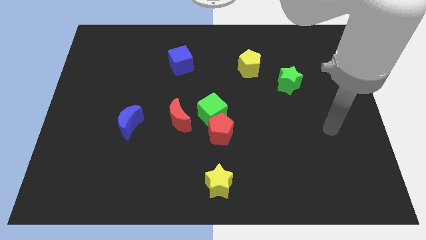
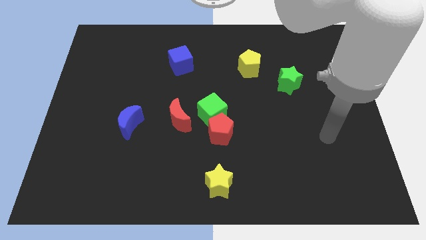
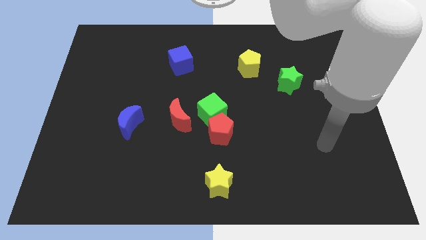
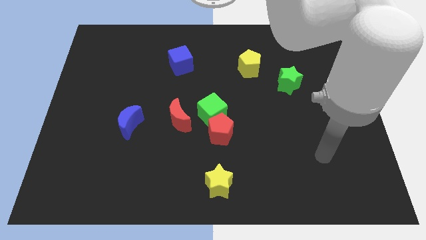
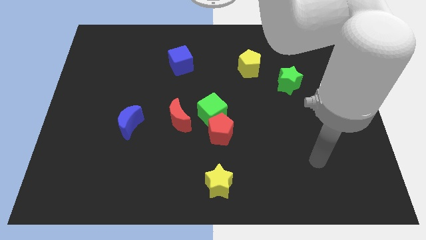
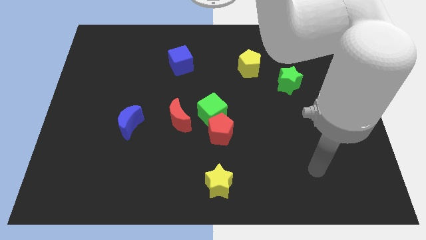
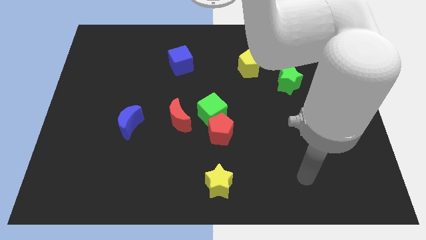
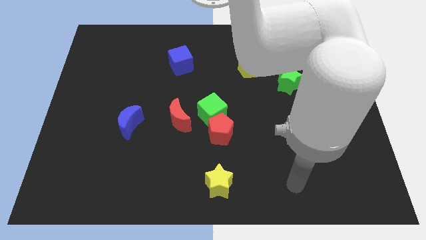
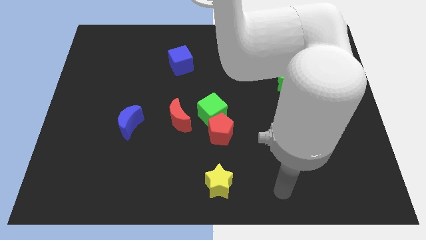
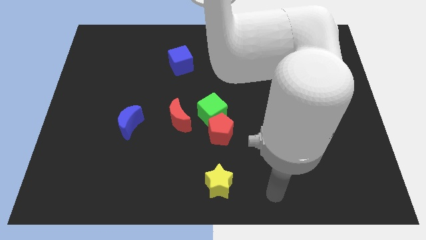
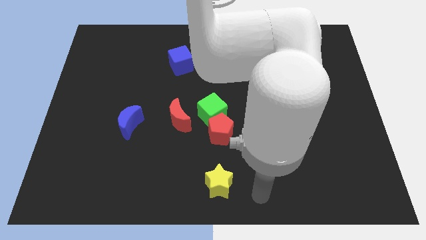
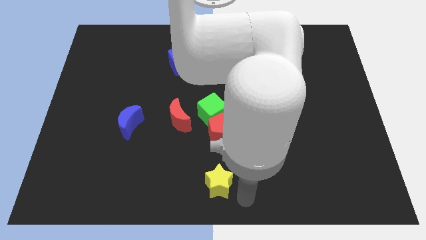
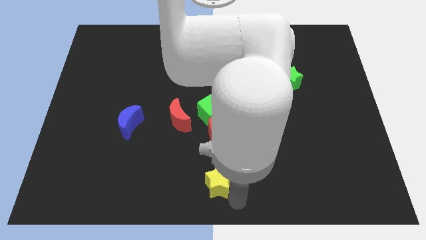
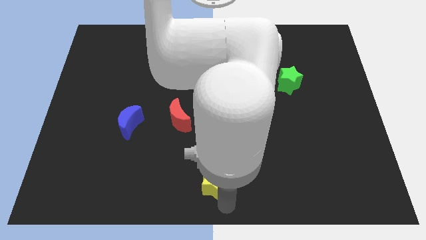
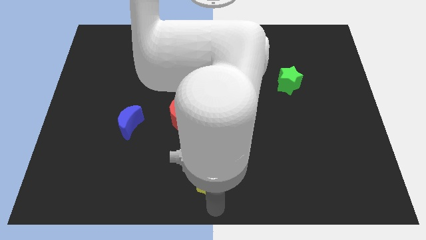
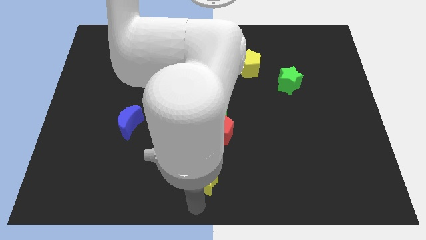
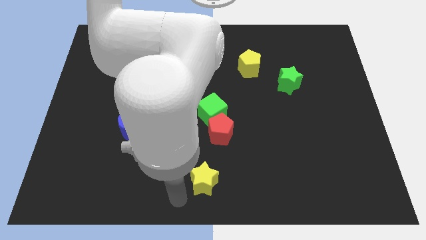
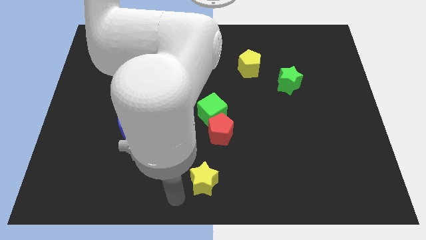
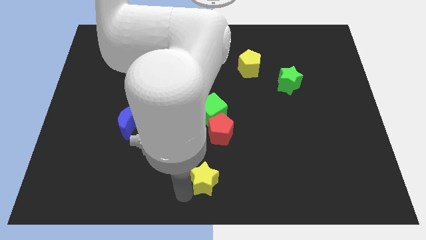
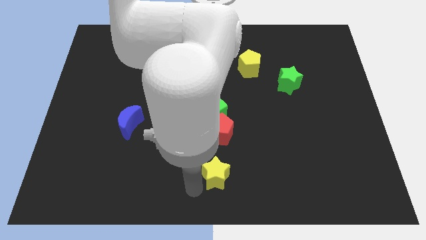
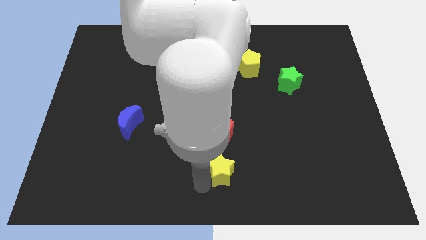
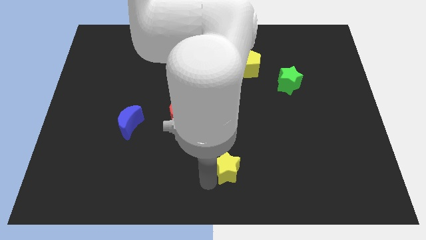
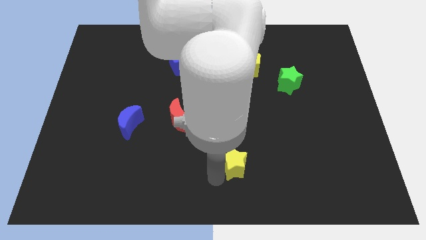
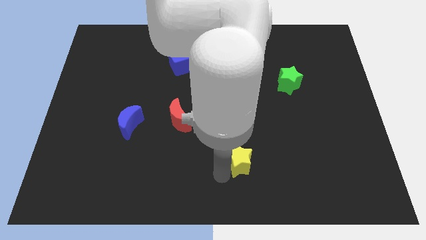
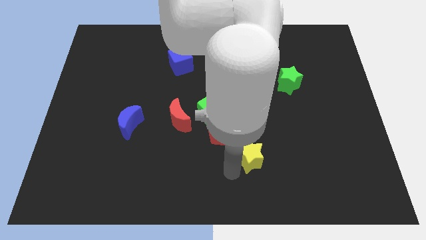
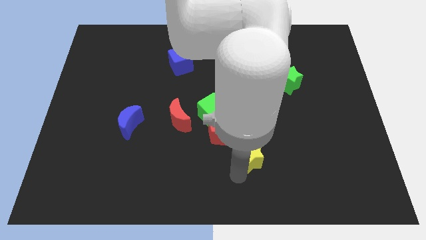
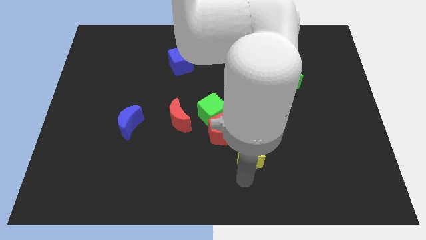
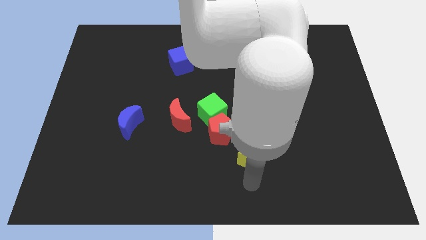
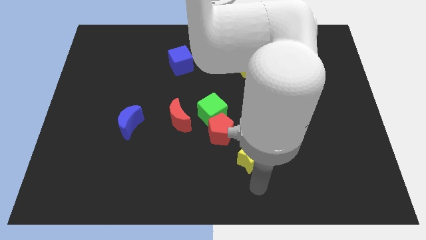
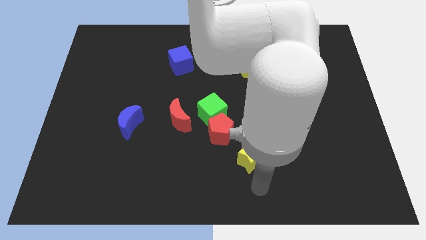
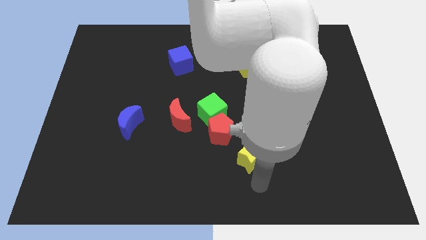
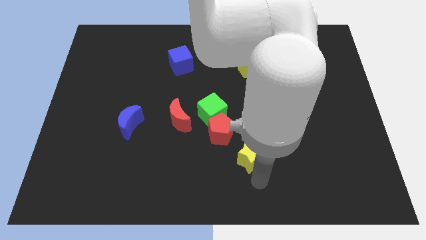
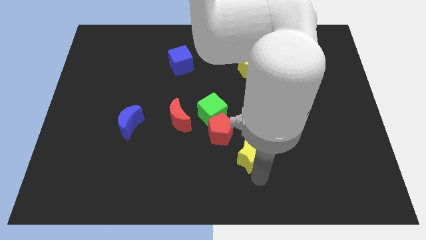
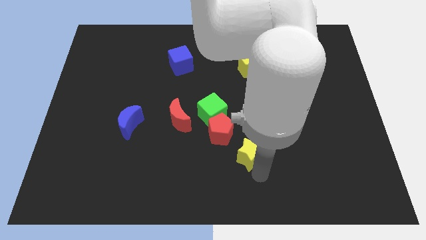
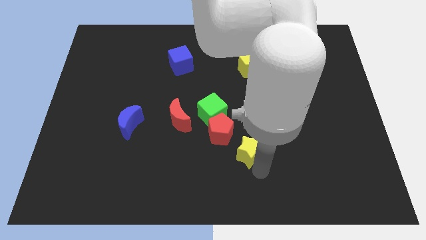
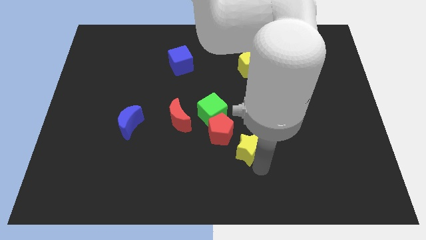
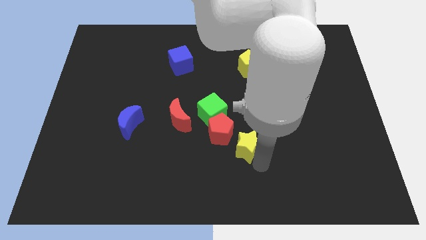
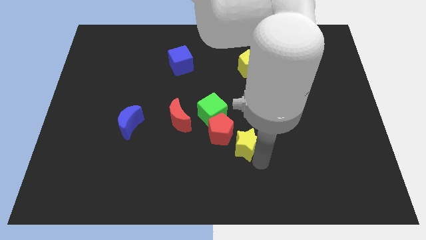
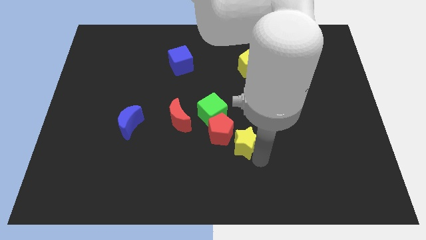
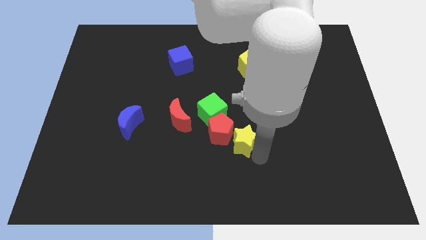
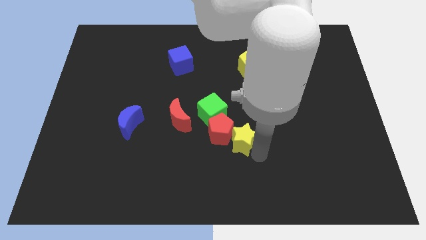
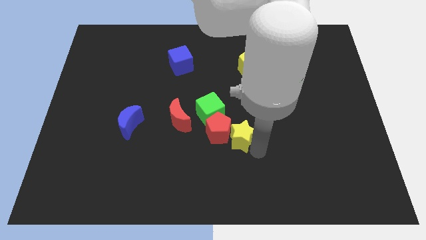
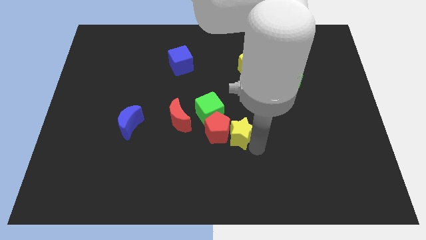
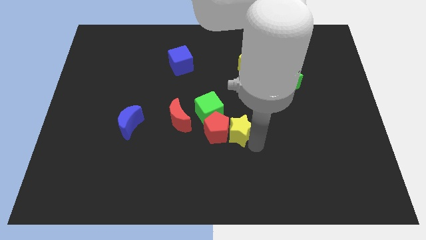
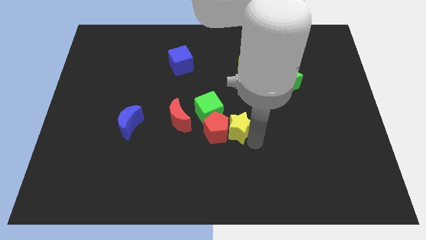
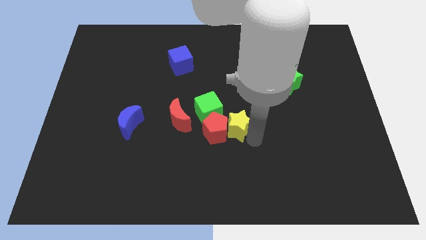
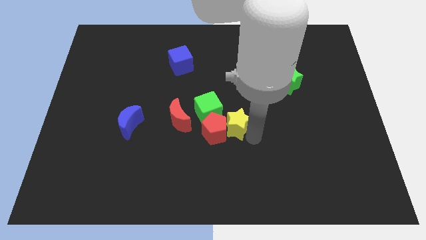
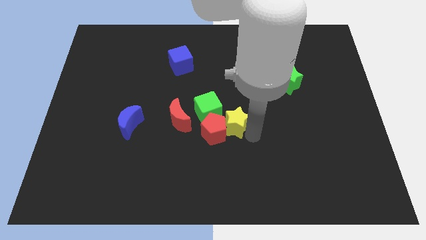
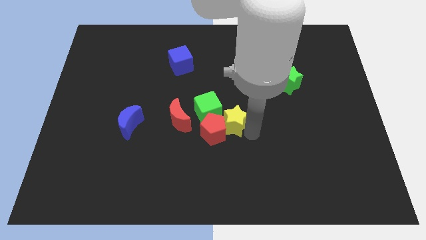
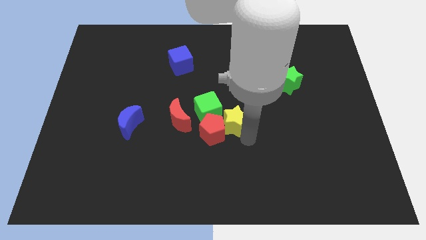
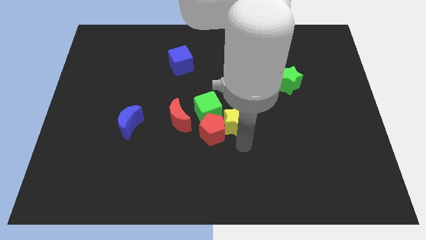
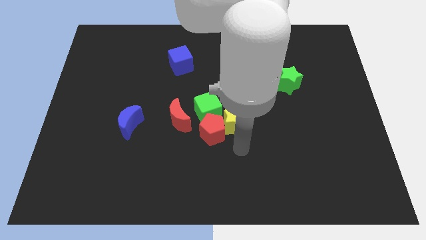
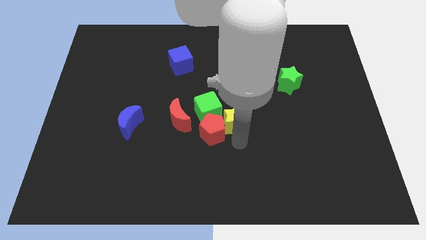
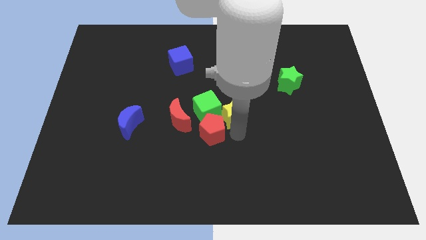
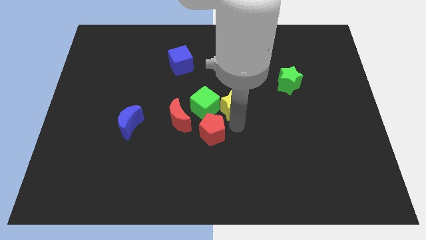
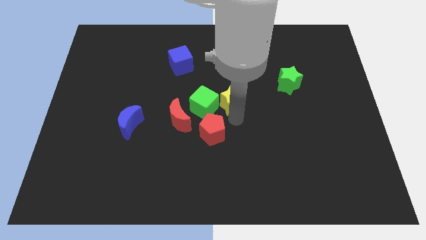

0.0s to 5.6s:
slide the yellow star up

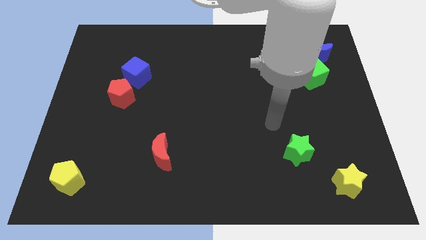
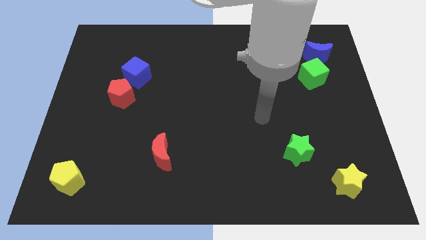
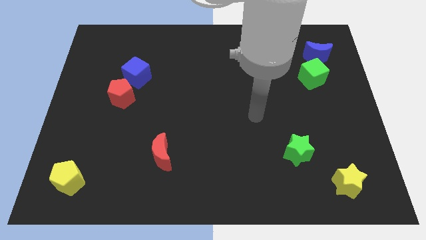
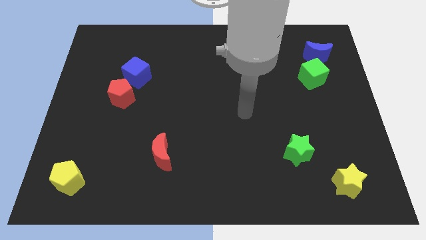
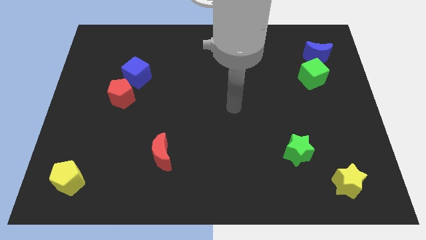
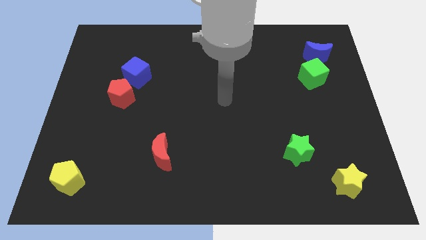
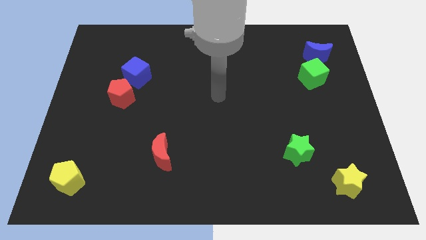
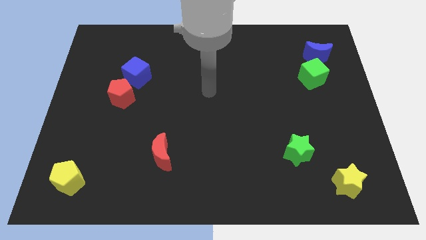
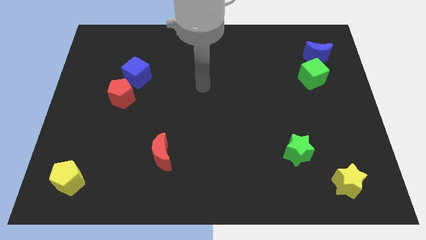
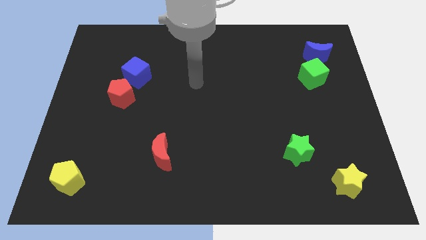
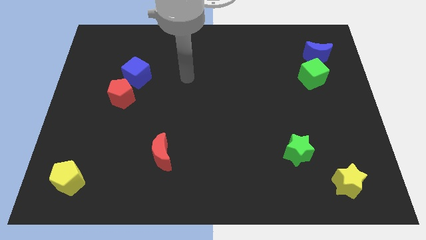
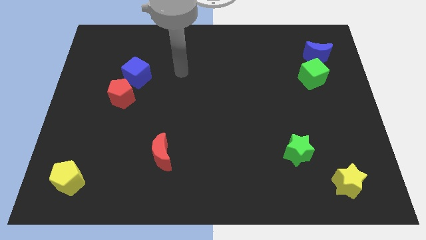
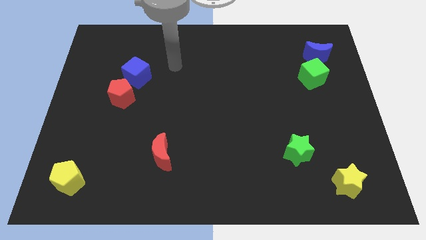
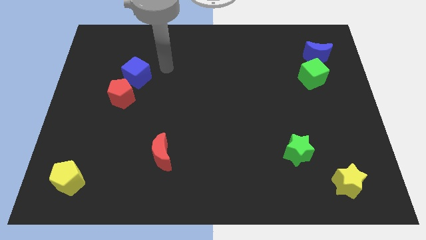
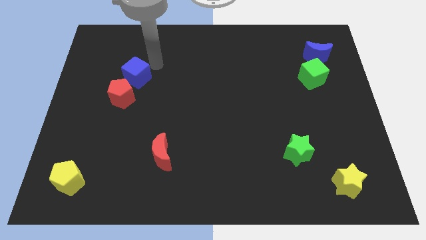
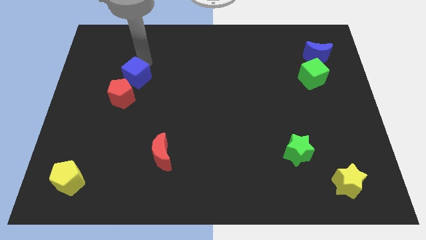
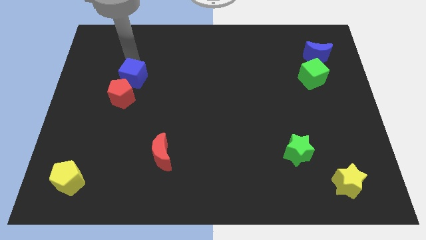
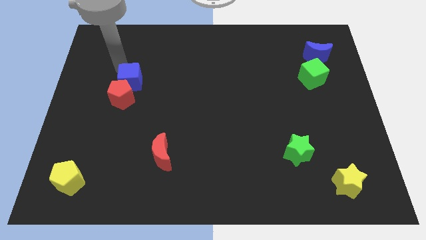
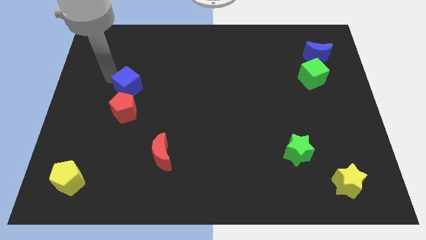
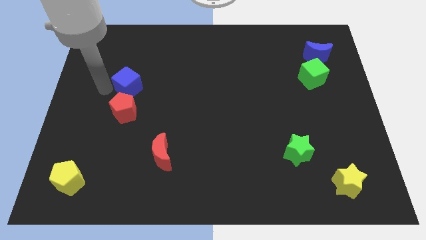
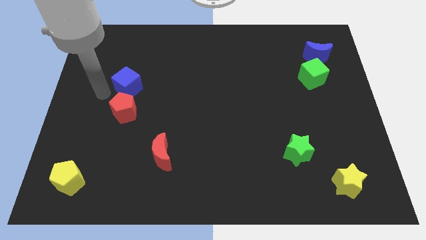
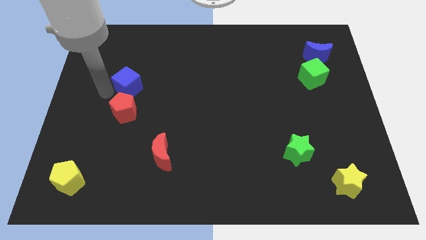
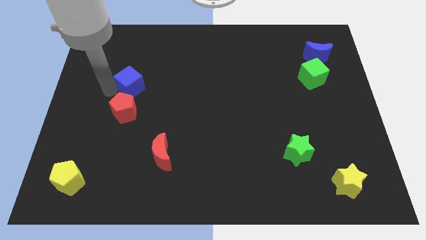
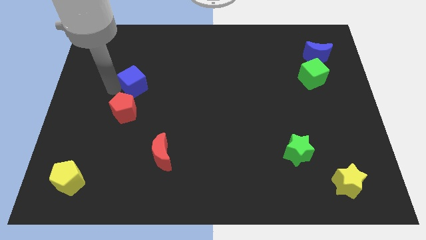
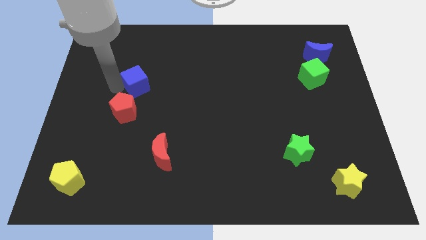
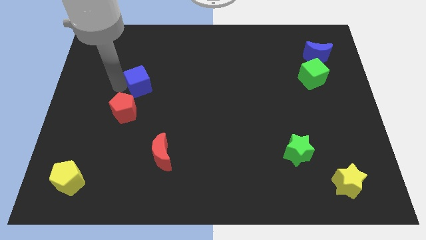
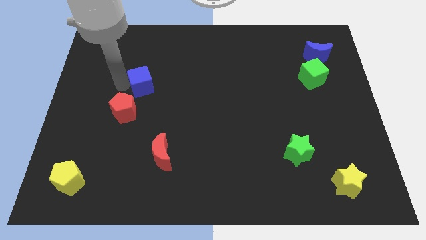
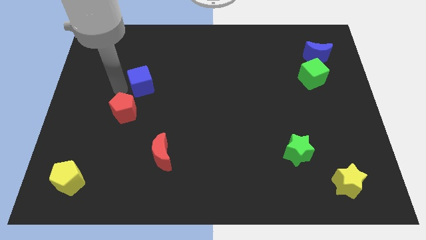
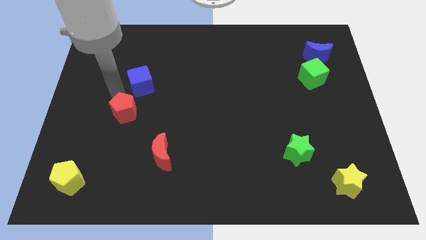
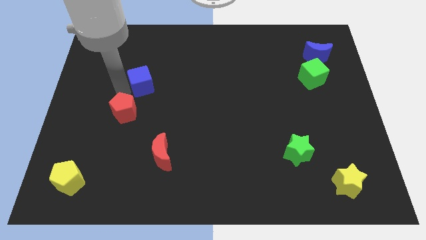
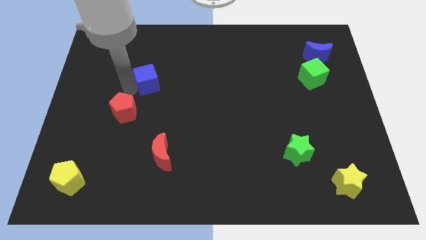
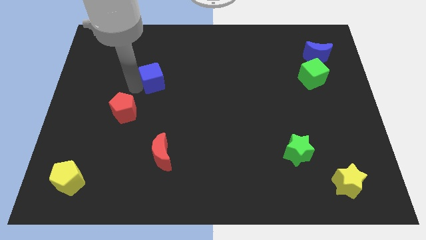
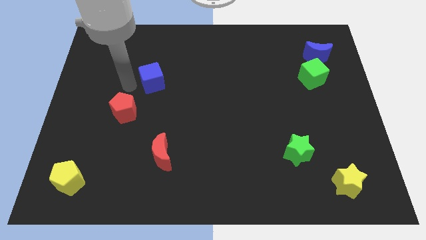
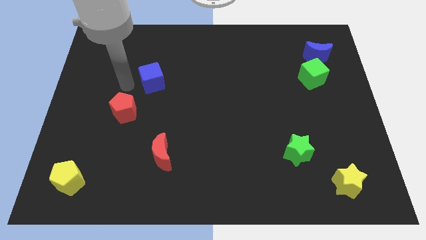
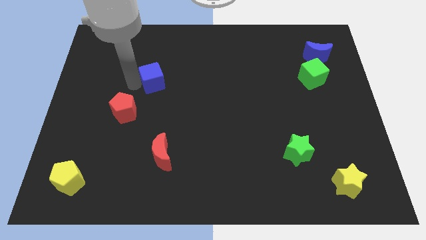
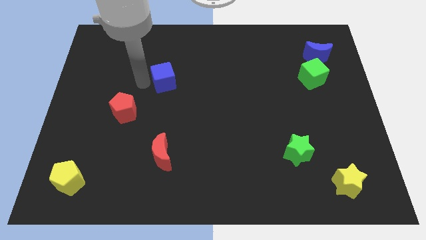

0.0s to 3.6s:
move the blue cube to the right somewhat
